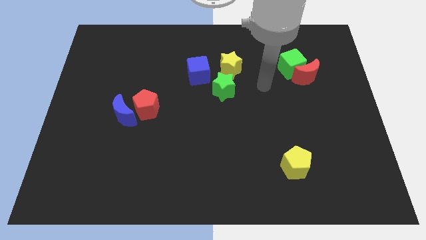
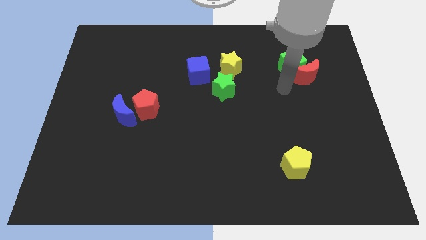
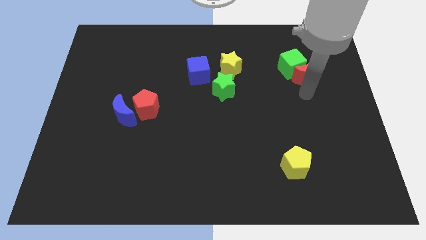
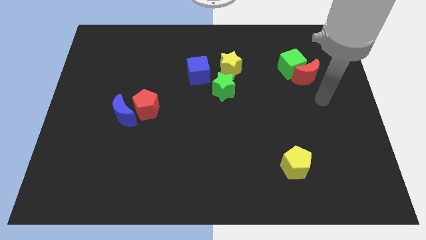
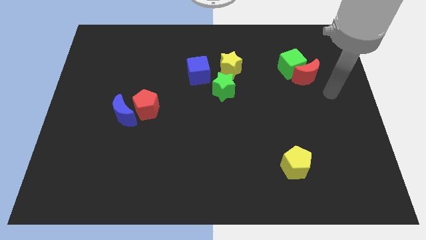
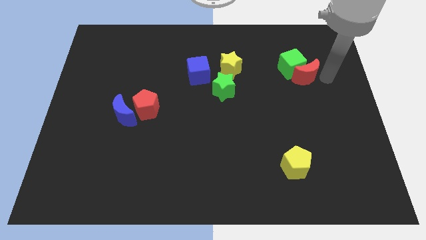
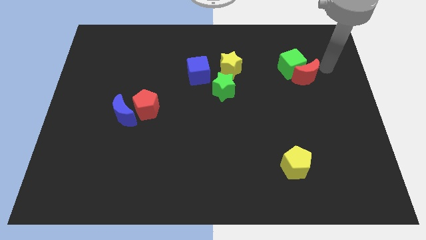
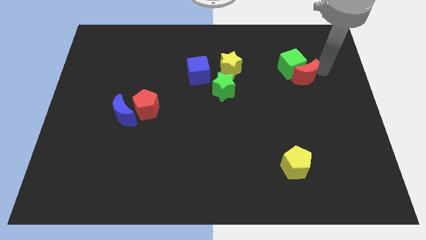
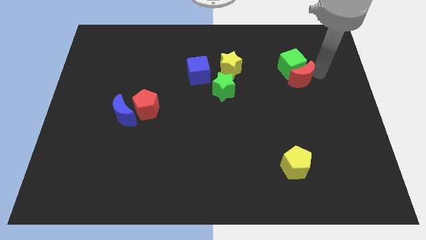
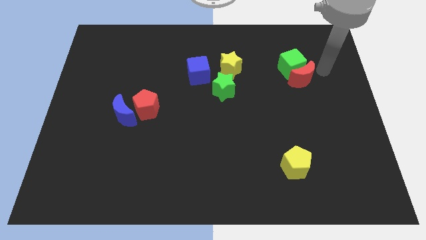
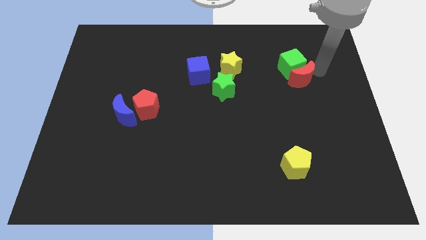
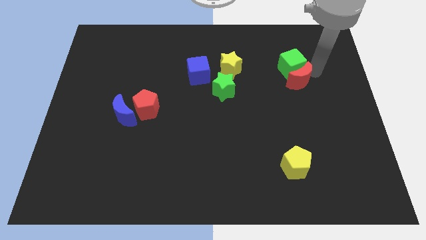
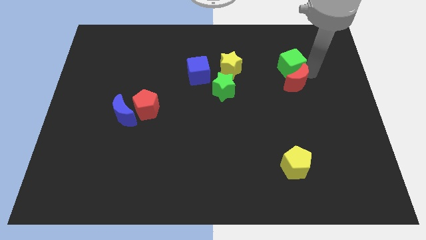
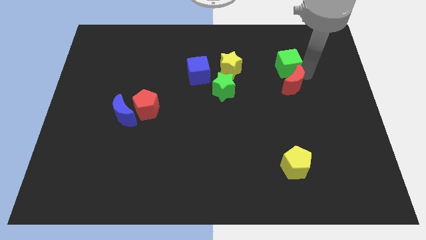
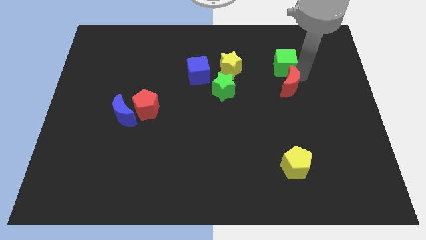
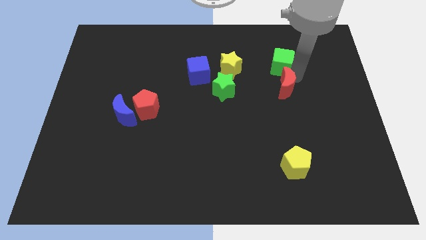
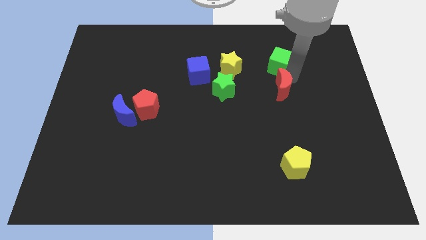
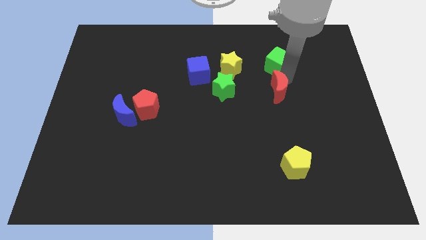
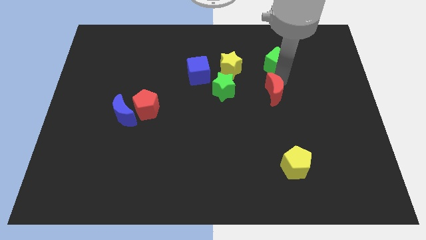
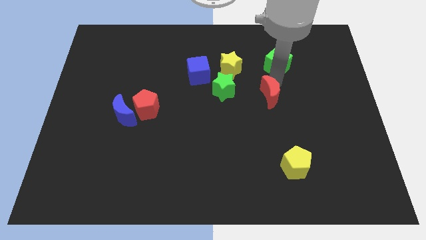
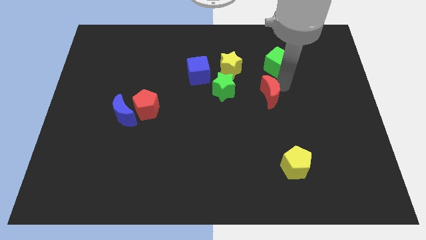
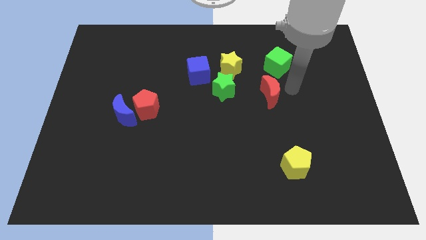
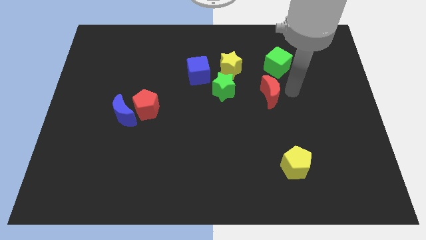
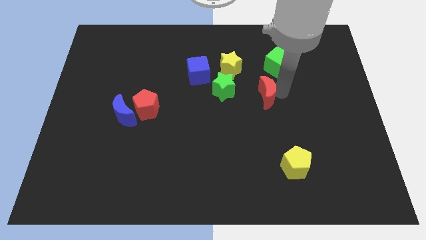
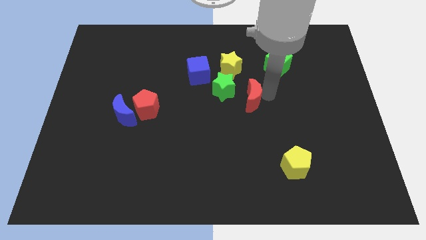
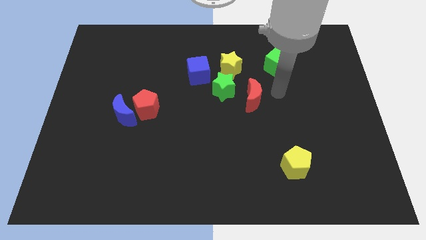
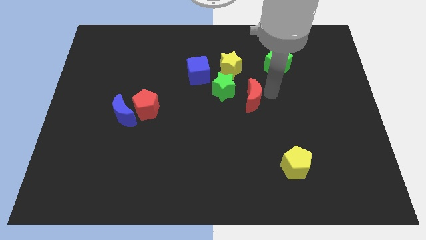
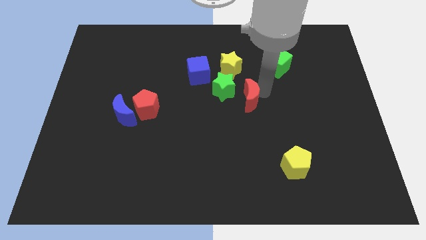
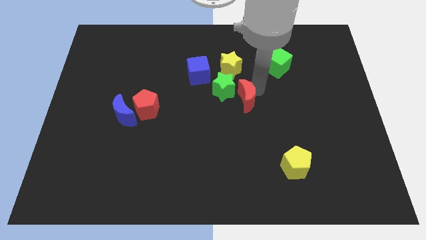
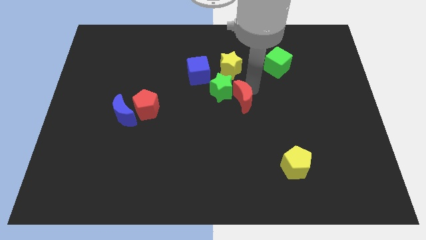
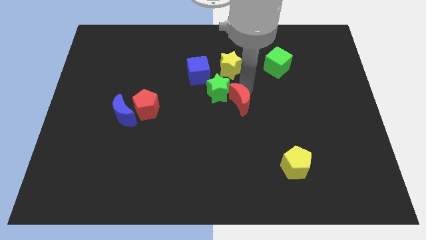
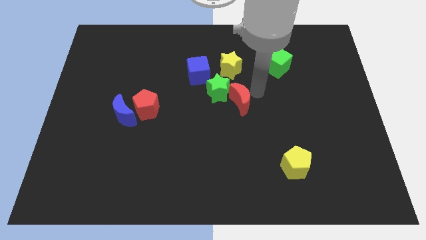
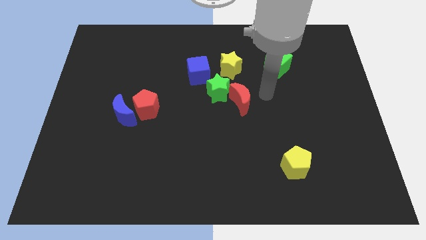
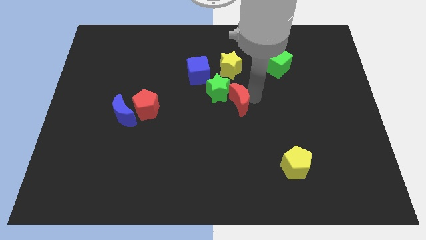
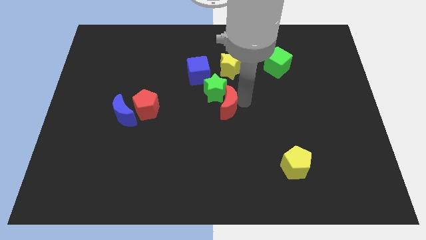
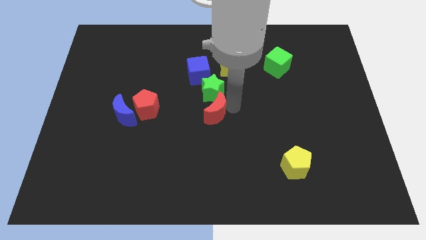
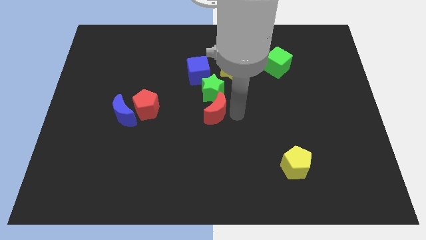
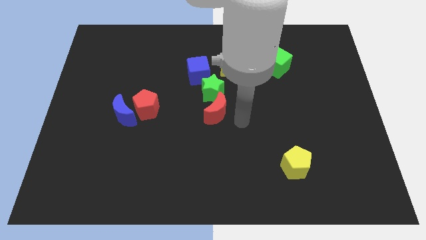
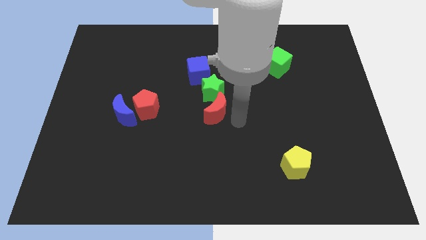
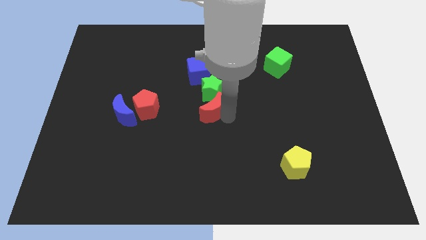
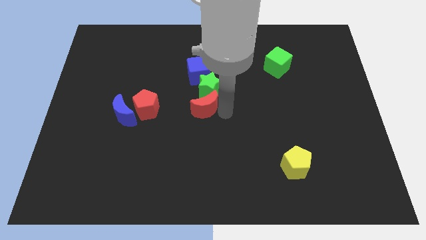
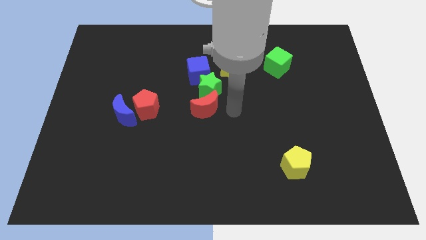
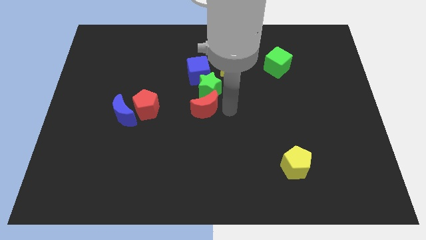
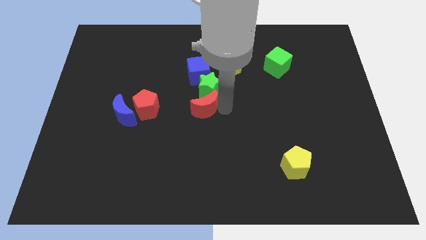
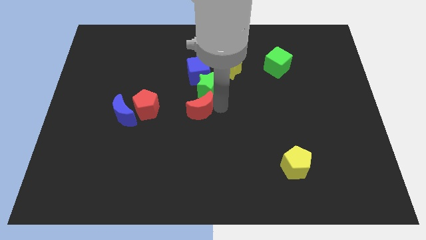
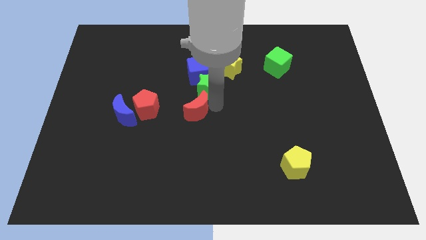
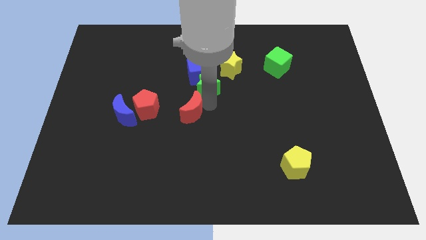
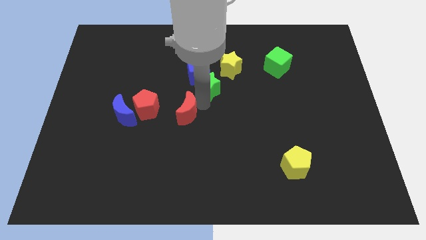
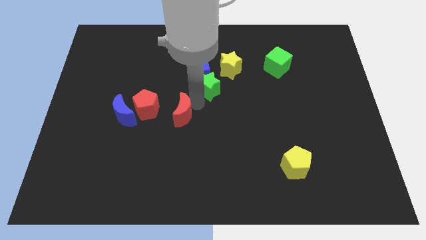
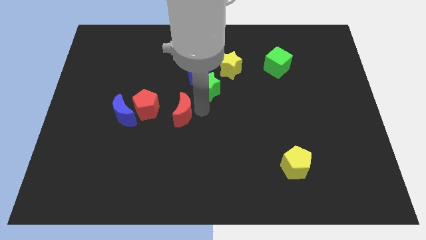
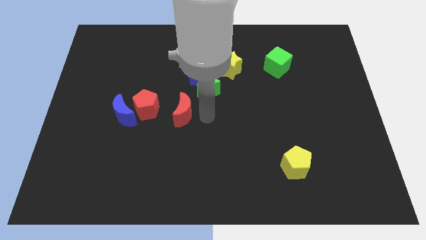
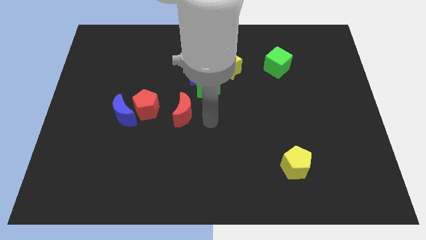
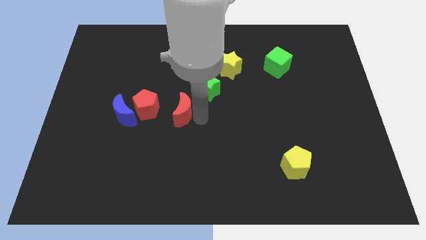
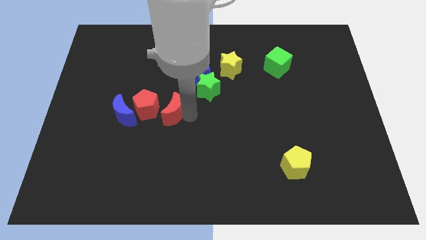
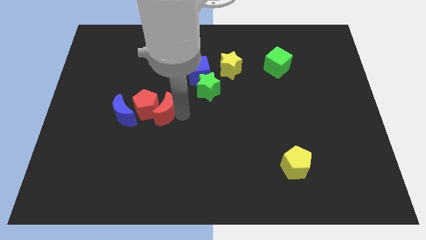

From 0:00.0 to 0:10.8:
slide the red moon close to the red pentagon

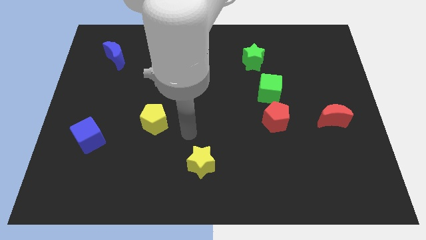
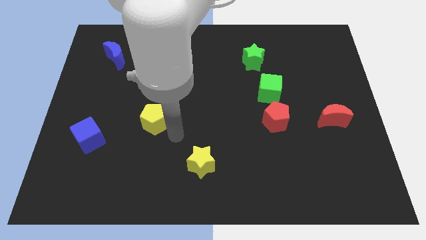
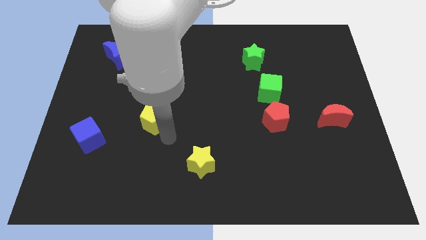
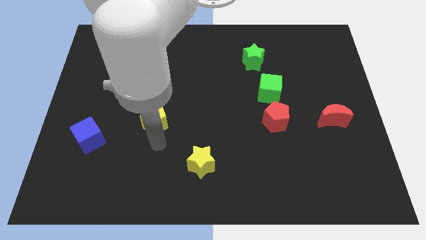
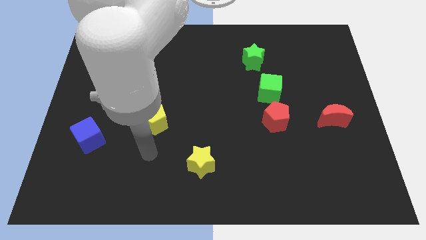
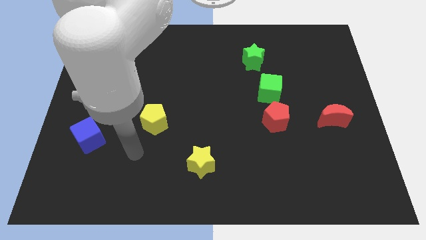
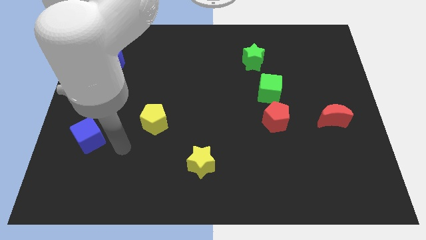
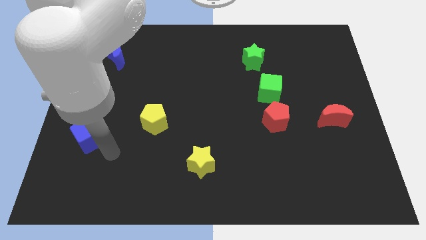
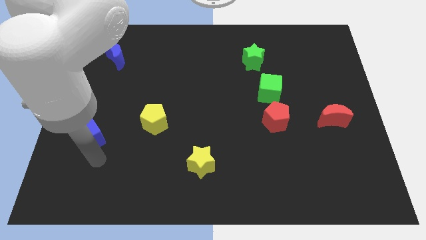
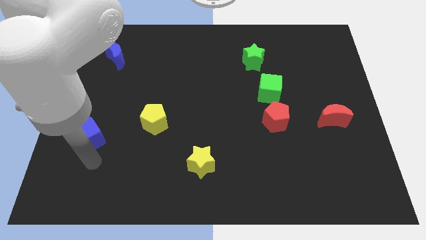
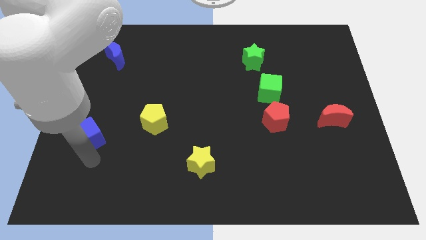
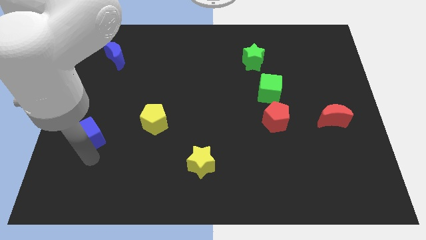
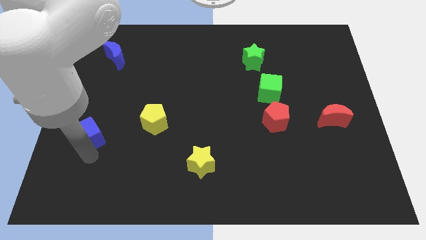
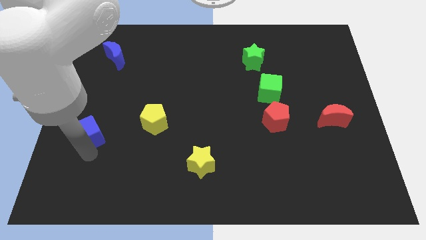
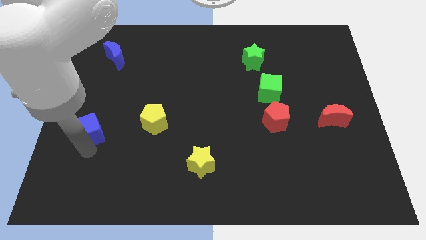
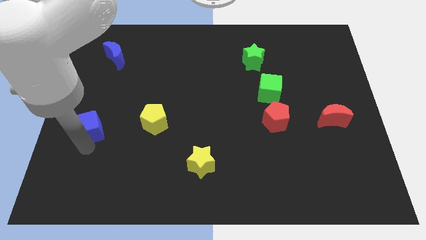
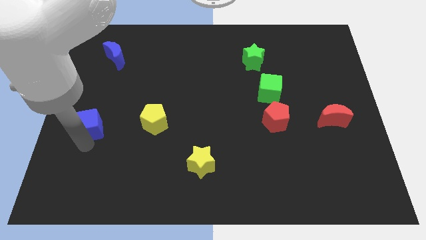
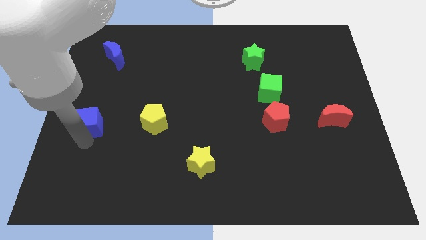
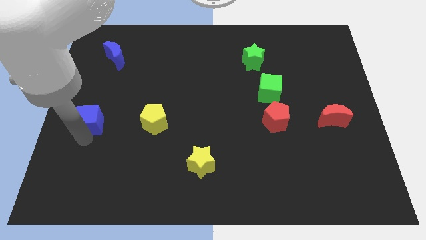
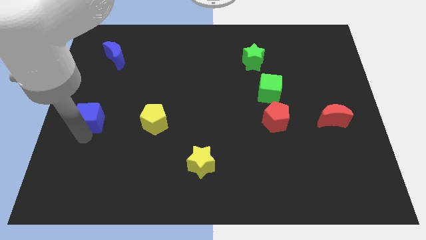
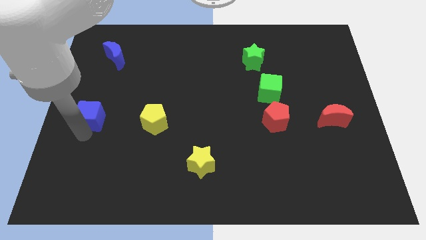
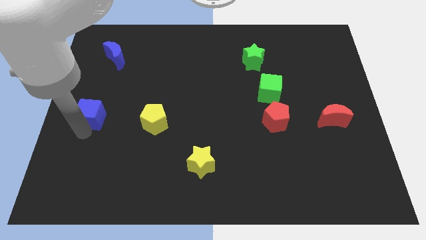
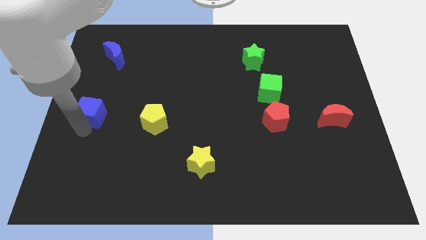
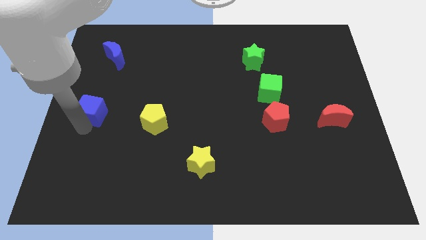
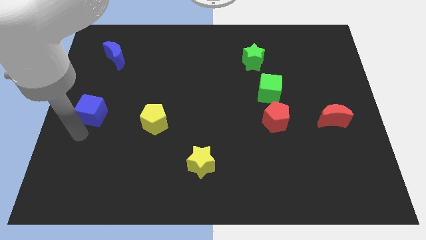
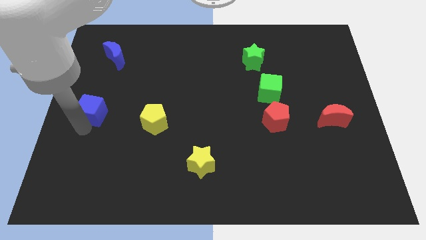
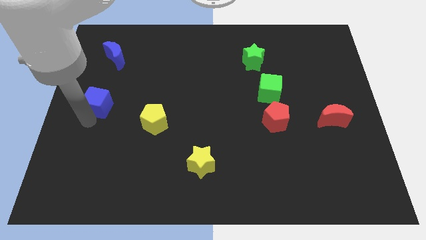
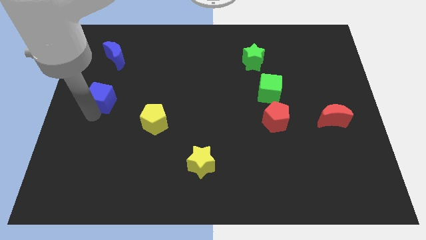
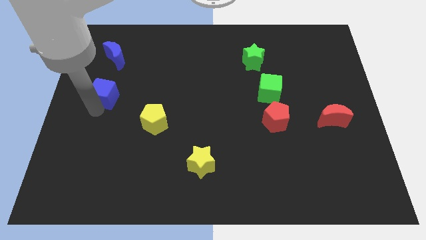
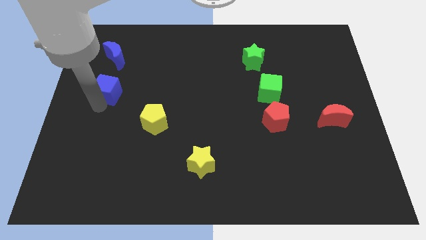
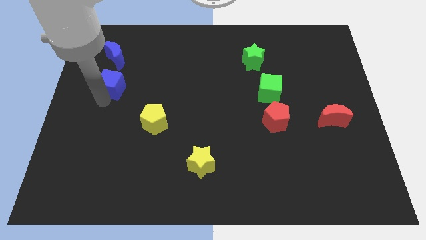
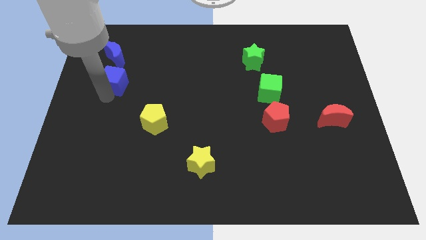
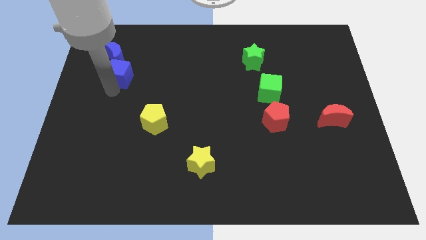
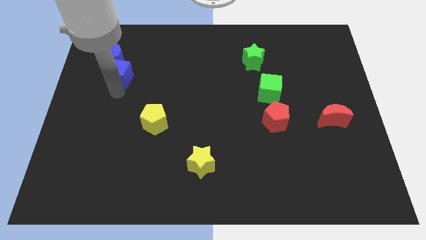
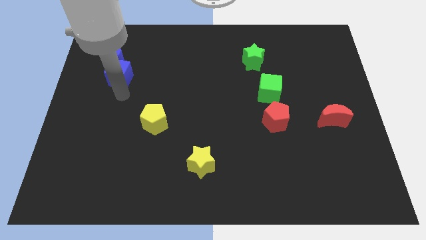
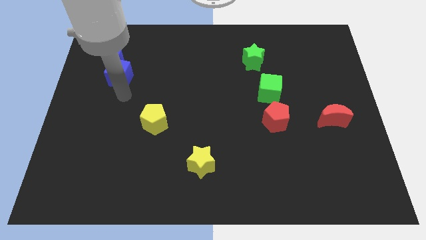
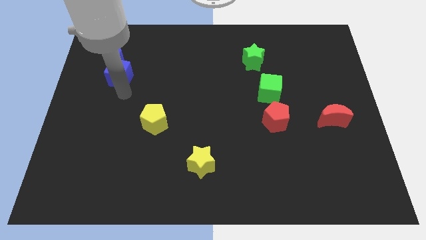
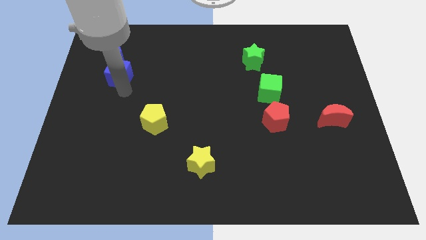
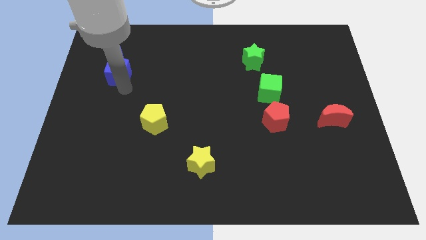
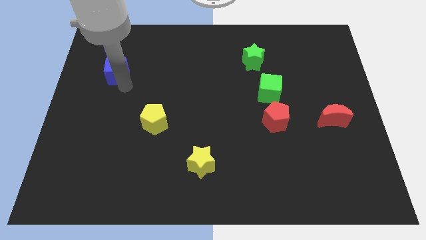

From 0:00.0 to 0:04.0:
move the blue cube close to the blue moon
